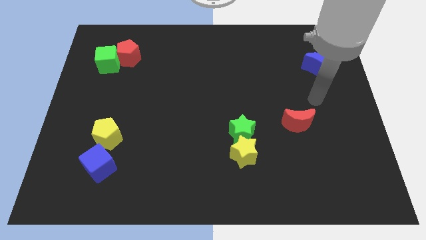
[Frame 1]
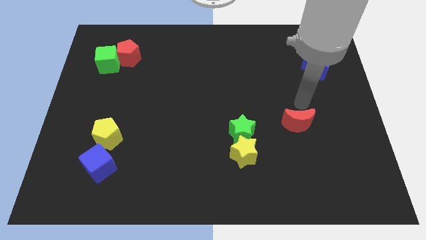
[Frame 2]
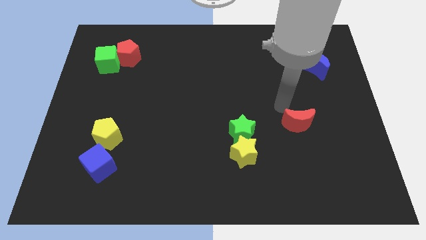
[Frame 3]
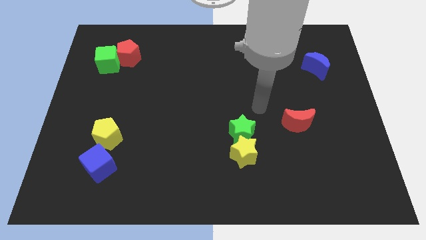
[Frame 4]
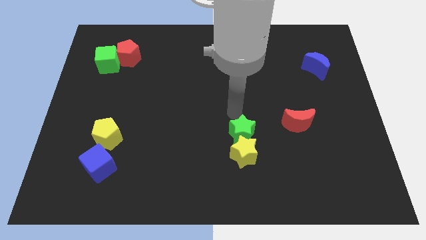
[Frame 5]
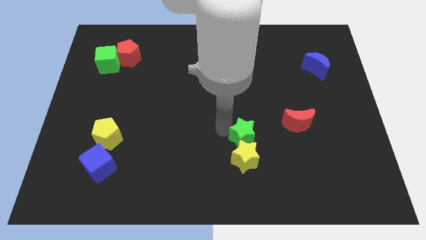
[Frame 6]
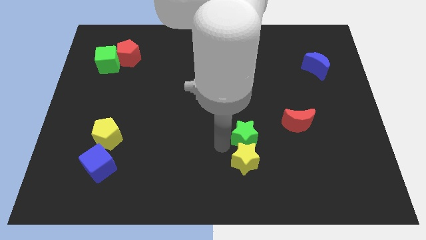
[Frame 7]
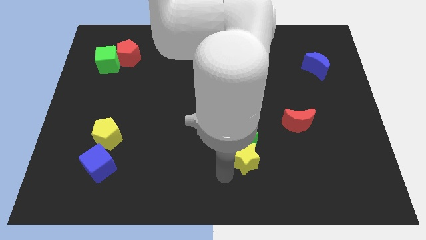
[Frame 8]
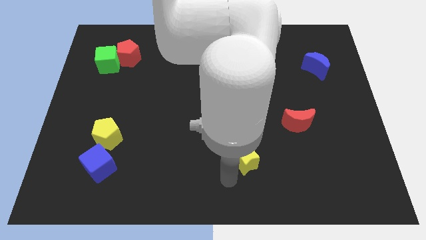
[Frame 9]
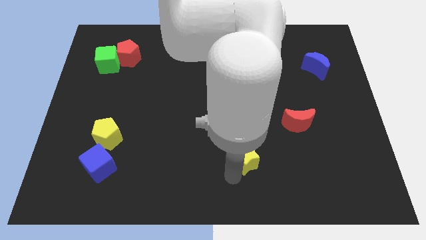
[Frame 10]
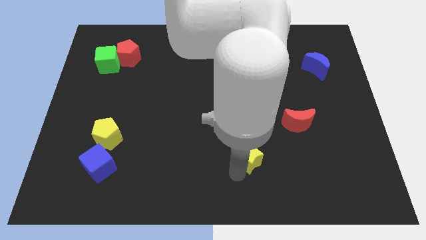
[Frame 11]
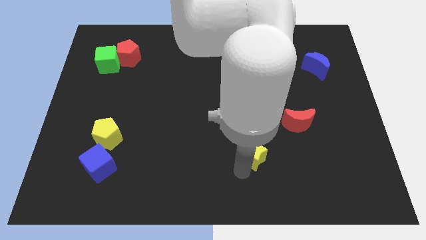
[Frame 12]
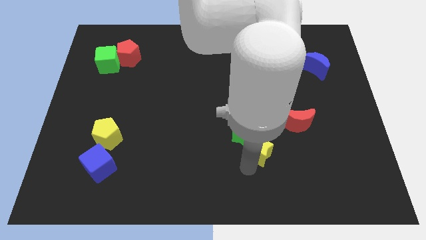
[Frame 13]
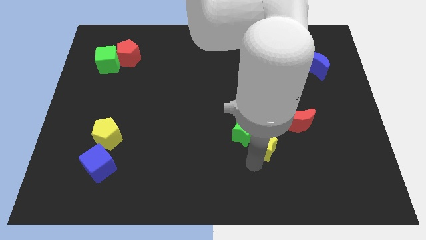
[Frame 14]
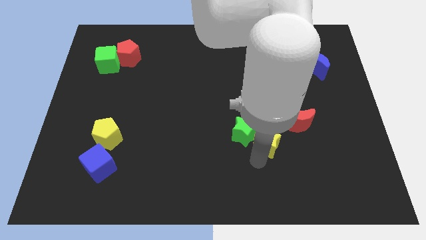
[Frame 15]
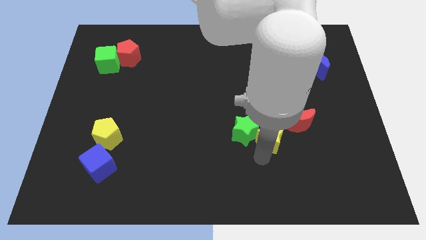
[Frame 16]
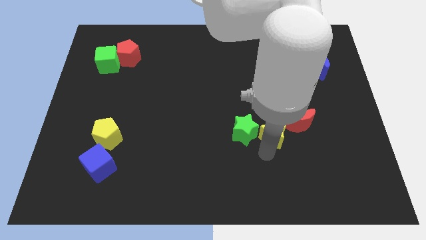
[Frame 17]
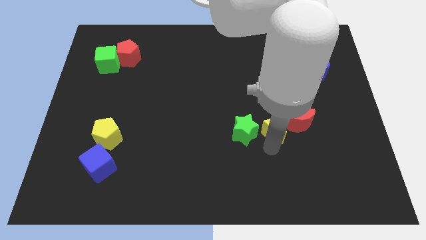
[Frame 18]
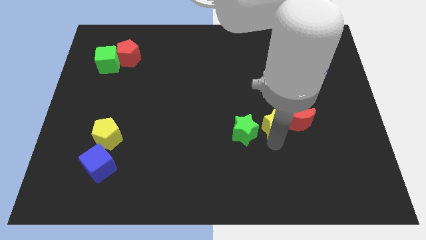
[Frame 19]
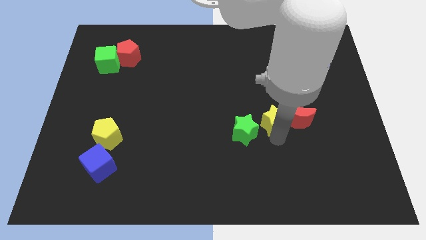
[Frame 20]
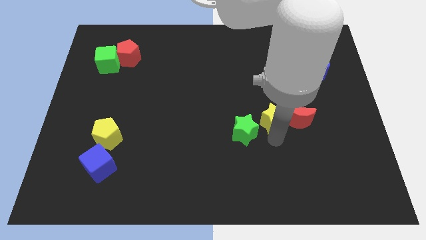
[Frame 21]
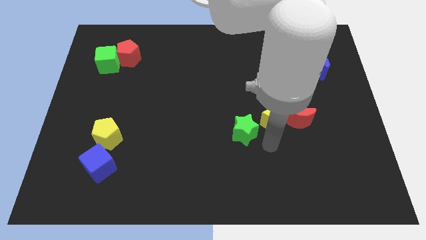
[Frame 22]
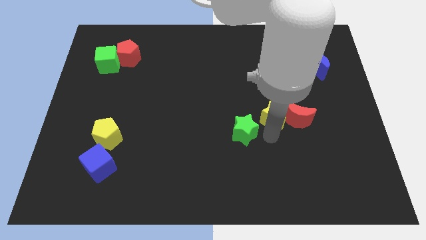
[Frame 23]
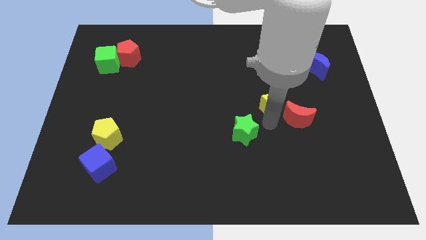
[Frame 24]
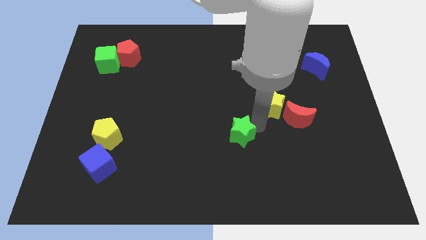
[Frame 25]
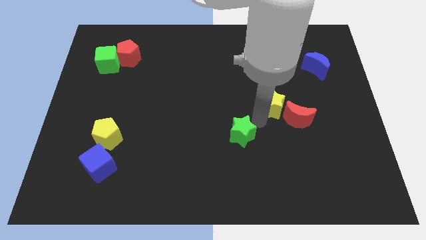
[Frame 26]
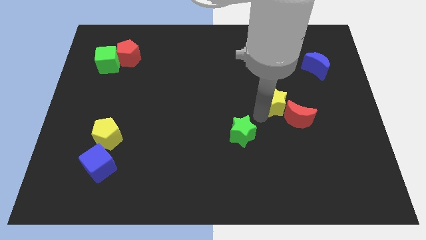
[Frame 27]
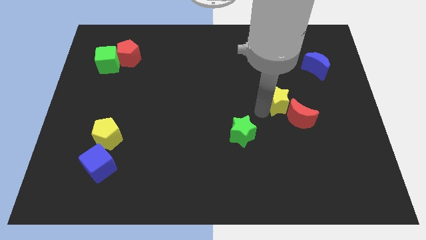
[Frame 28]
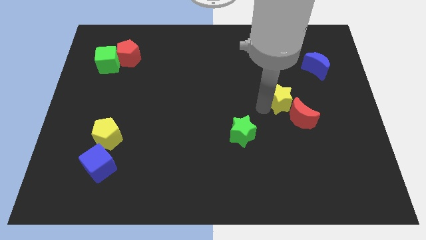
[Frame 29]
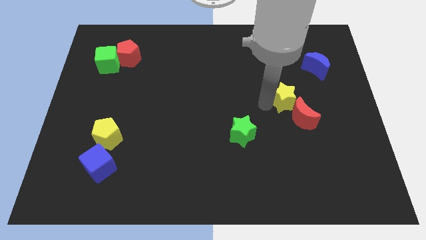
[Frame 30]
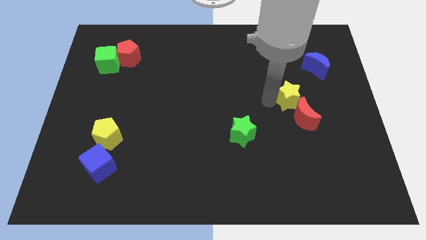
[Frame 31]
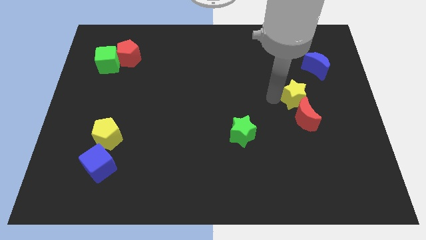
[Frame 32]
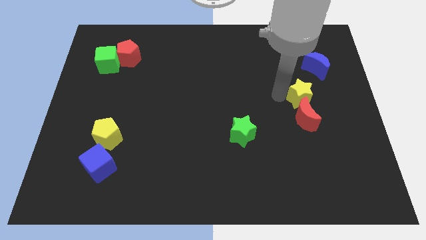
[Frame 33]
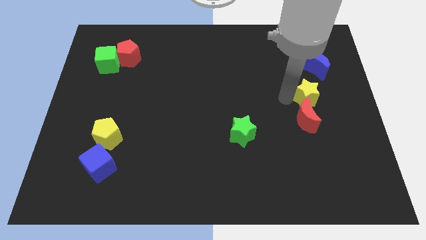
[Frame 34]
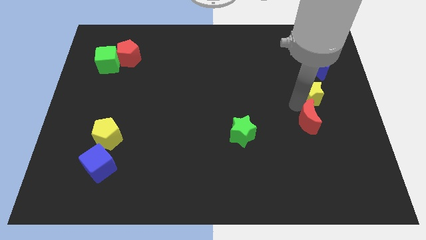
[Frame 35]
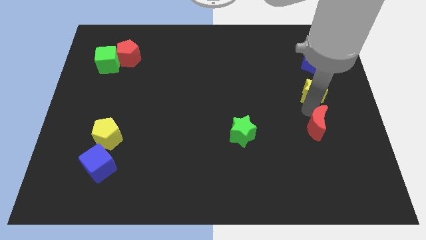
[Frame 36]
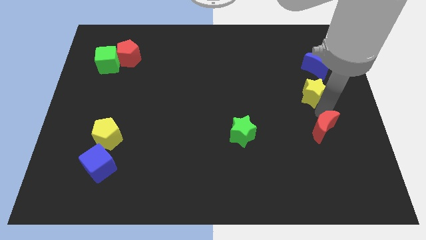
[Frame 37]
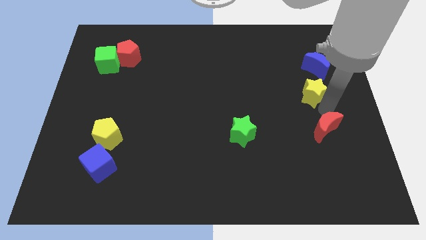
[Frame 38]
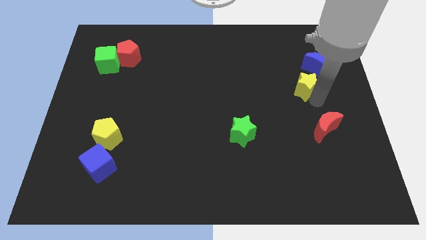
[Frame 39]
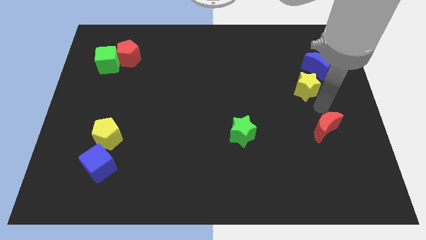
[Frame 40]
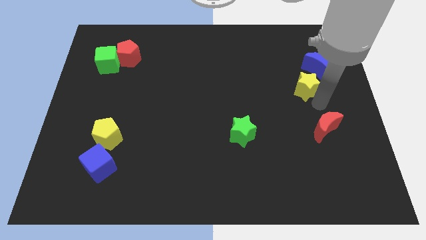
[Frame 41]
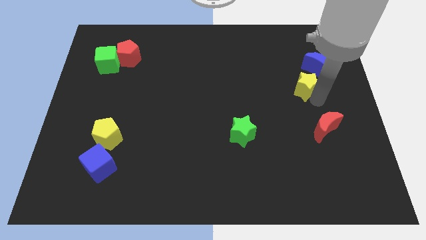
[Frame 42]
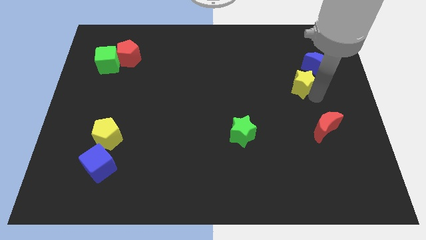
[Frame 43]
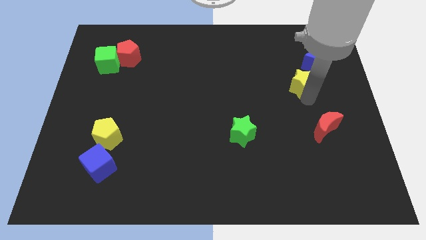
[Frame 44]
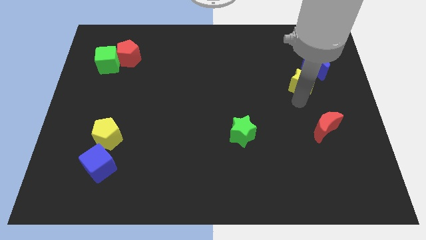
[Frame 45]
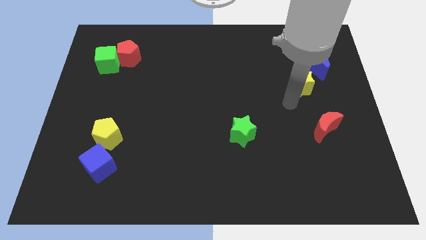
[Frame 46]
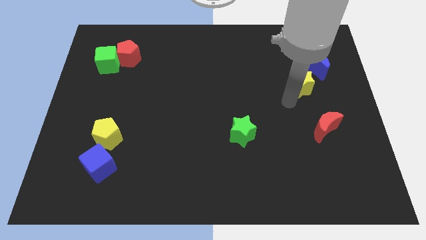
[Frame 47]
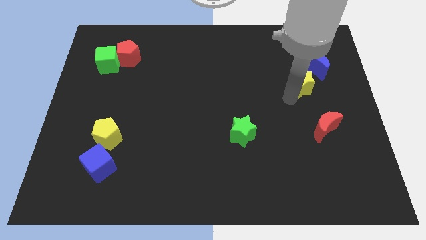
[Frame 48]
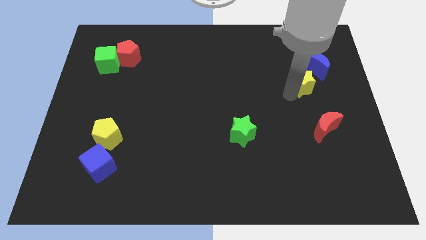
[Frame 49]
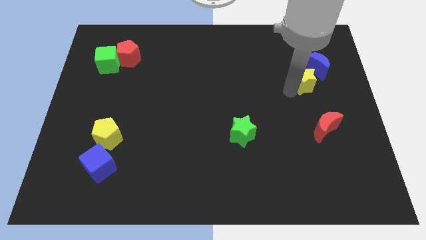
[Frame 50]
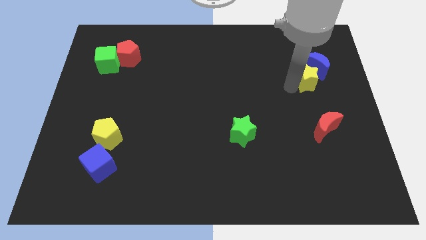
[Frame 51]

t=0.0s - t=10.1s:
slide the yellow star to the blue moon

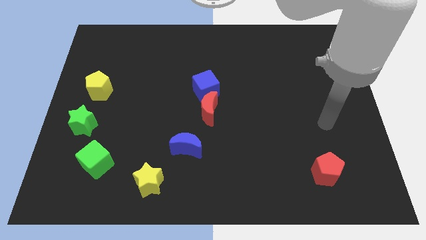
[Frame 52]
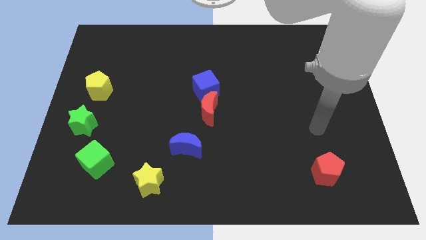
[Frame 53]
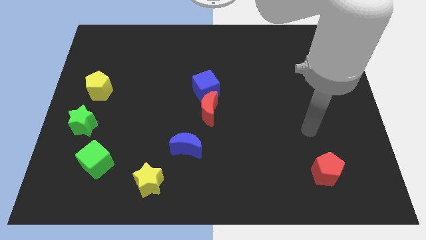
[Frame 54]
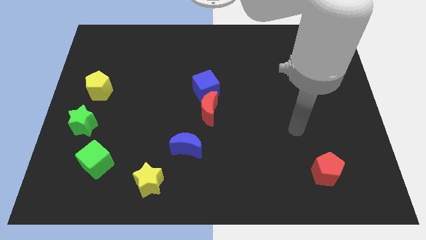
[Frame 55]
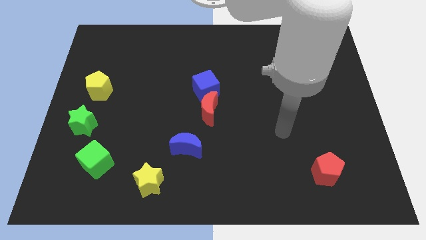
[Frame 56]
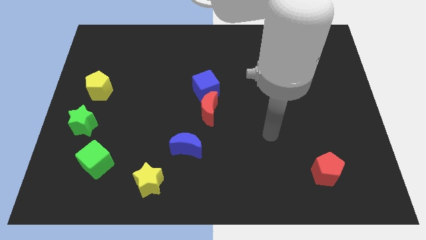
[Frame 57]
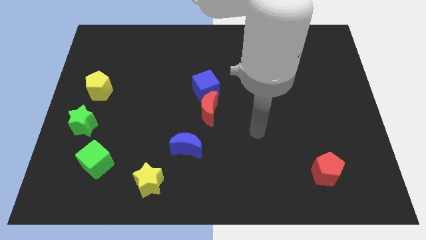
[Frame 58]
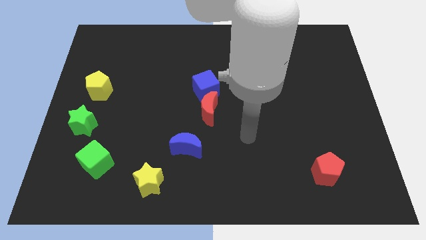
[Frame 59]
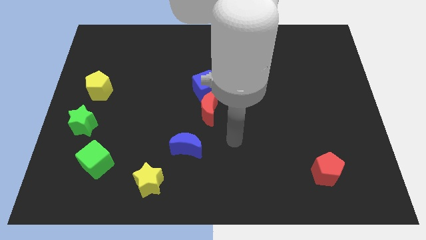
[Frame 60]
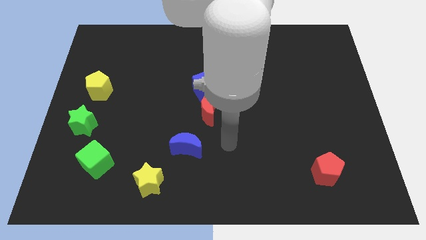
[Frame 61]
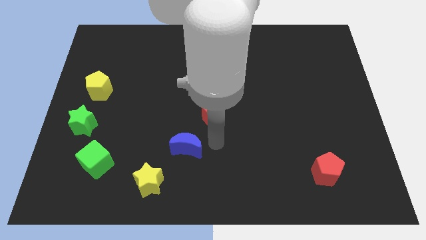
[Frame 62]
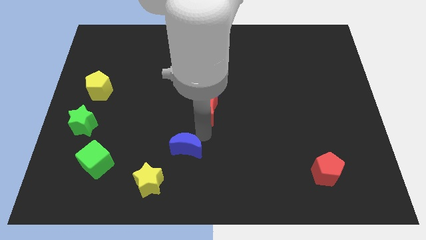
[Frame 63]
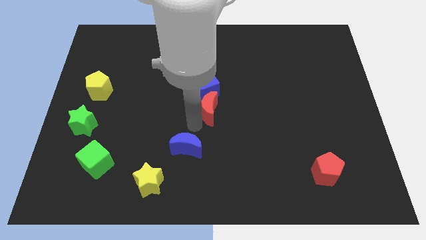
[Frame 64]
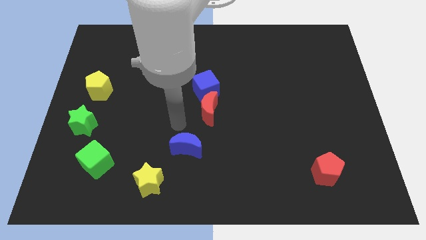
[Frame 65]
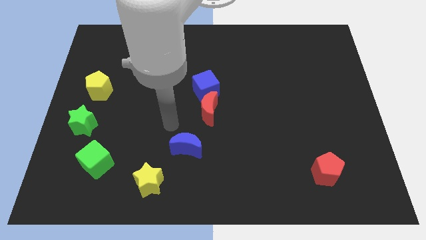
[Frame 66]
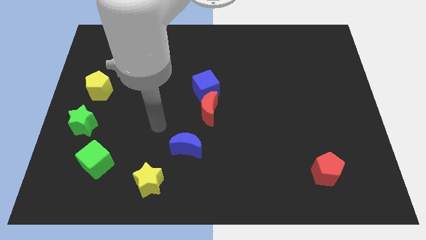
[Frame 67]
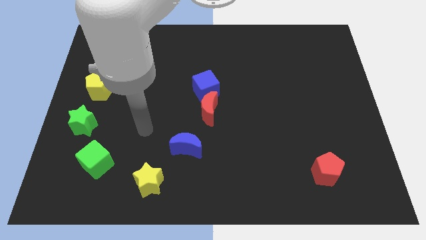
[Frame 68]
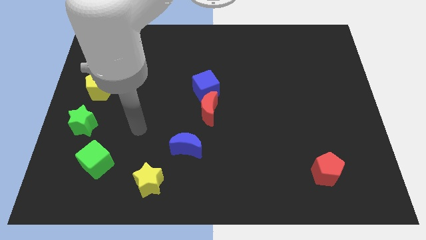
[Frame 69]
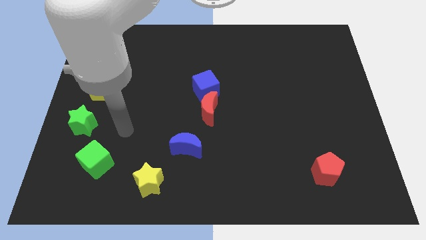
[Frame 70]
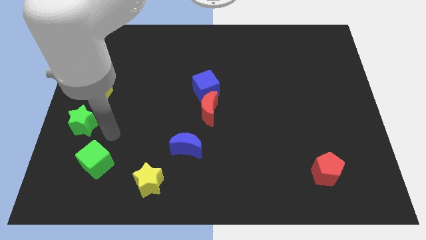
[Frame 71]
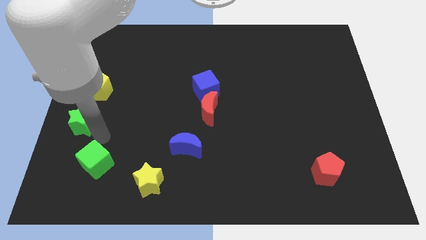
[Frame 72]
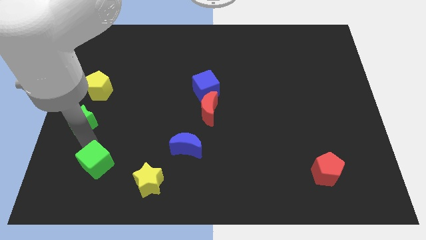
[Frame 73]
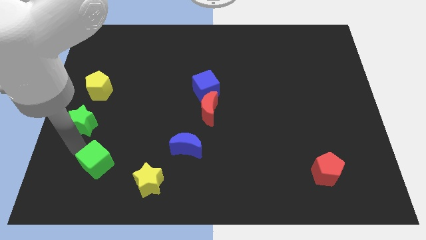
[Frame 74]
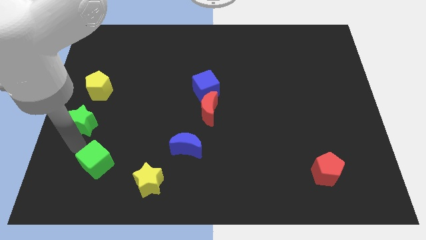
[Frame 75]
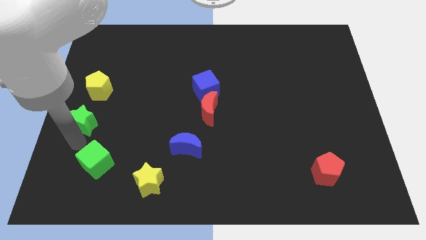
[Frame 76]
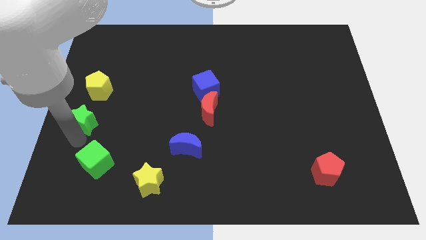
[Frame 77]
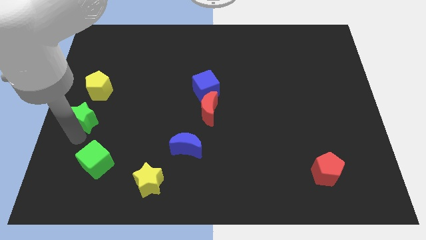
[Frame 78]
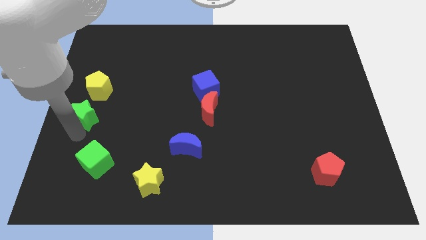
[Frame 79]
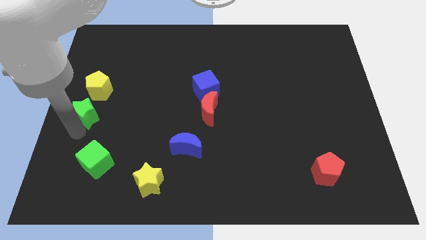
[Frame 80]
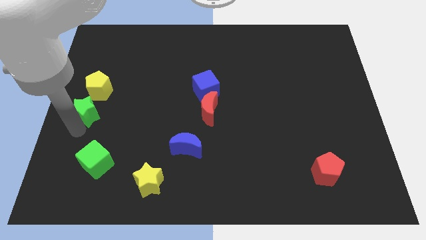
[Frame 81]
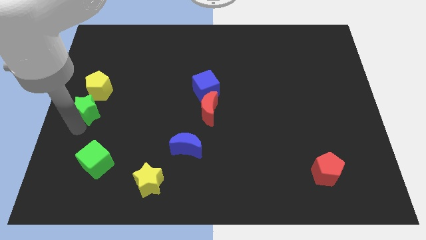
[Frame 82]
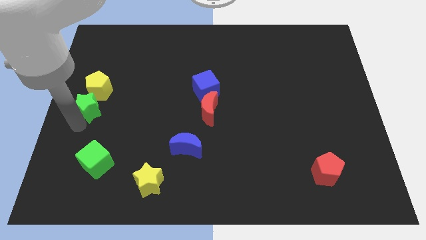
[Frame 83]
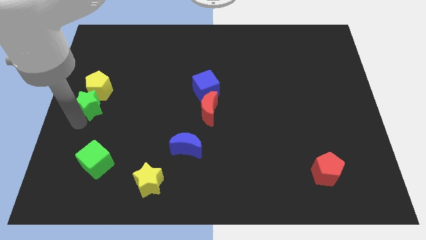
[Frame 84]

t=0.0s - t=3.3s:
push the green star next to the yellow pentagon
